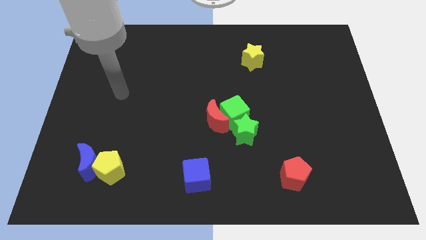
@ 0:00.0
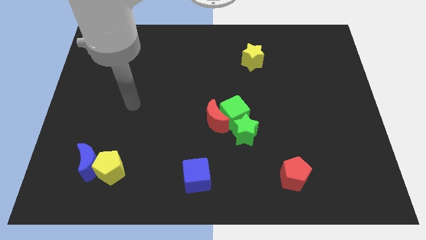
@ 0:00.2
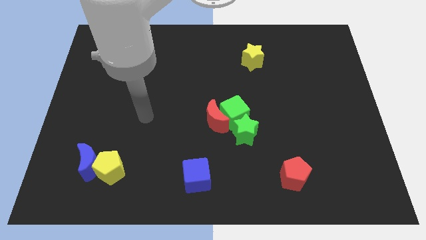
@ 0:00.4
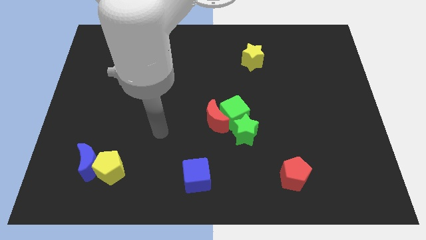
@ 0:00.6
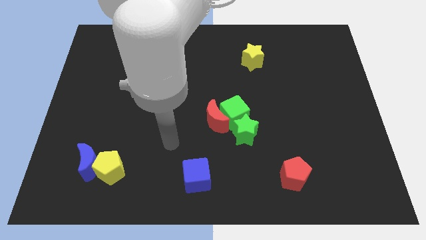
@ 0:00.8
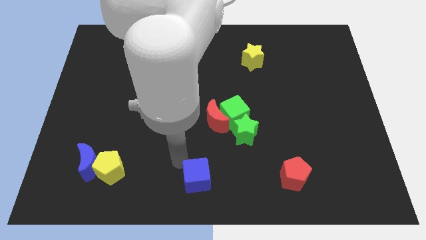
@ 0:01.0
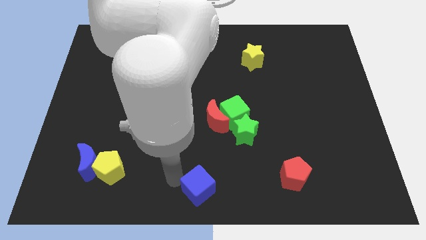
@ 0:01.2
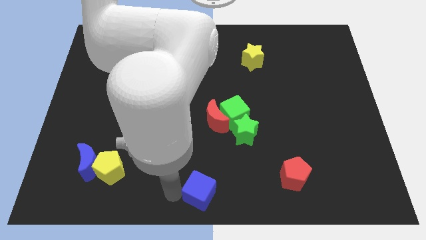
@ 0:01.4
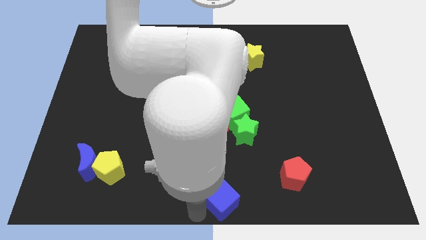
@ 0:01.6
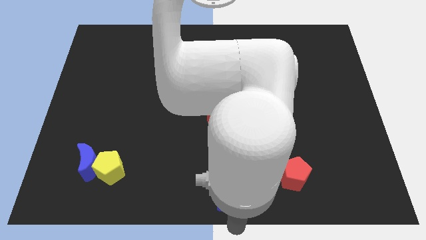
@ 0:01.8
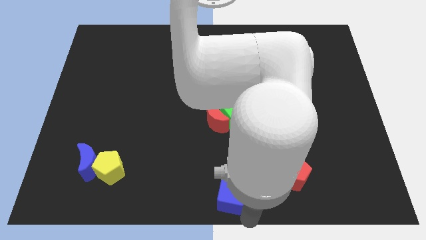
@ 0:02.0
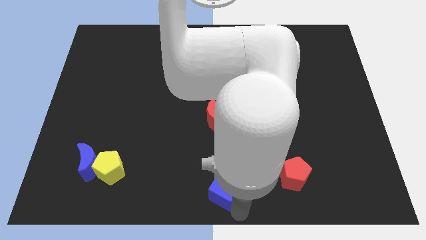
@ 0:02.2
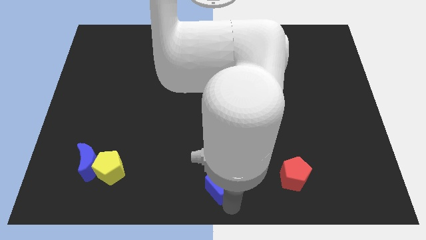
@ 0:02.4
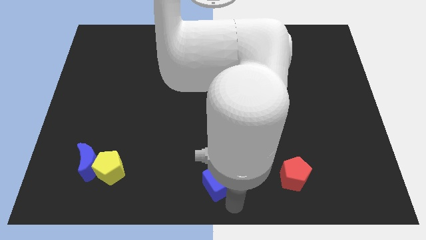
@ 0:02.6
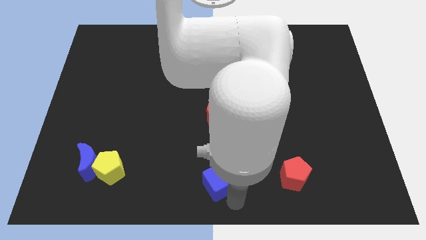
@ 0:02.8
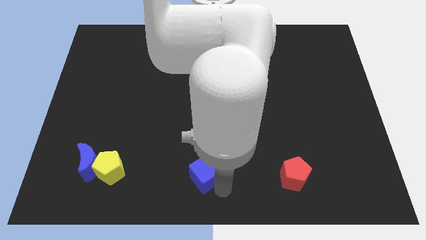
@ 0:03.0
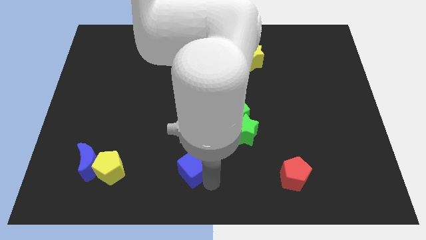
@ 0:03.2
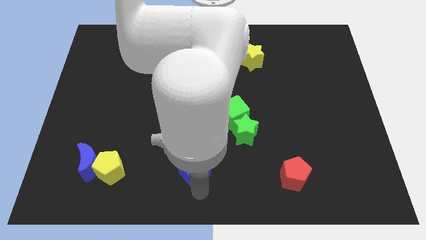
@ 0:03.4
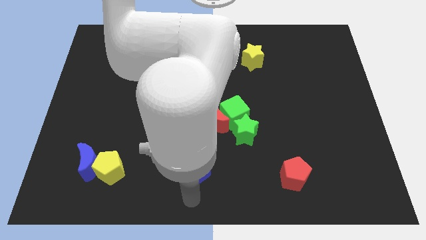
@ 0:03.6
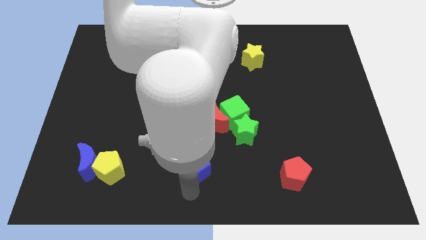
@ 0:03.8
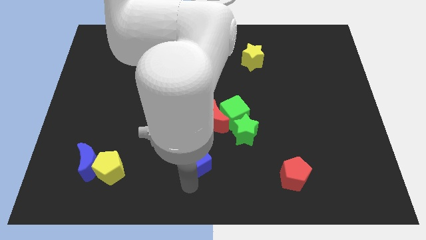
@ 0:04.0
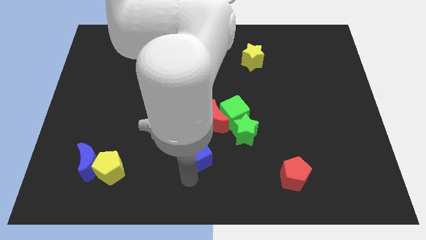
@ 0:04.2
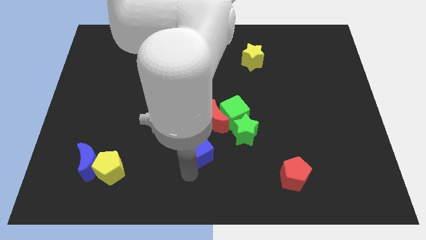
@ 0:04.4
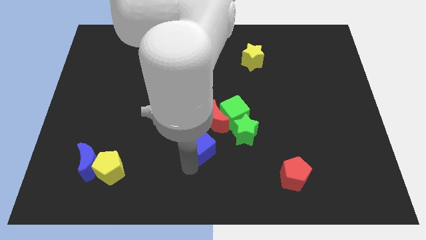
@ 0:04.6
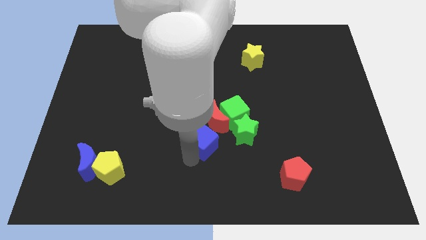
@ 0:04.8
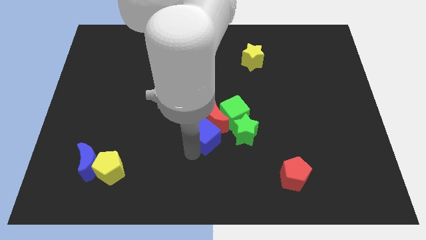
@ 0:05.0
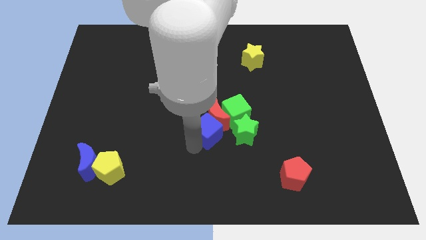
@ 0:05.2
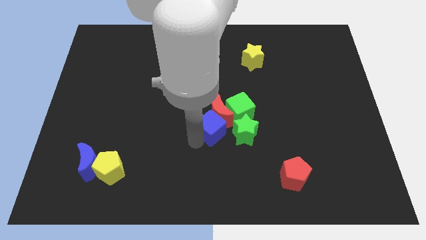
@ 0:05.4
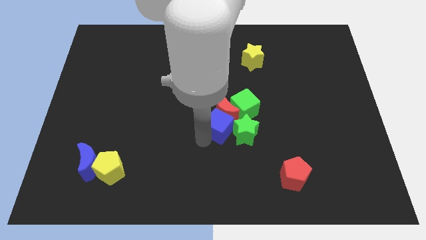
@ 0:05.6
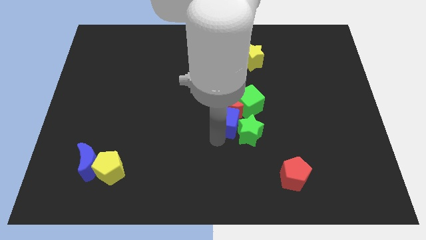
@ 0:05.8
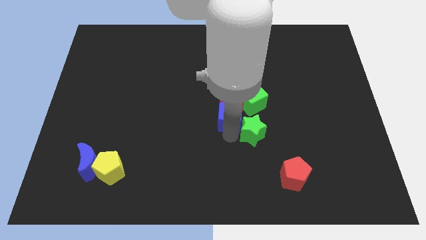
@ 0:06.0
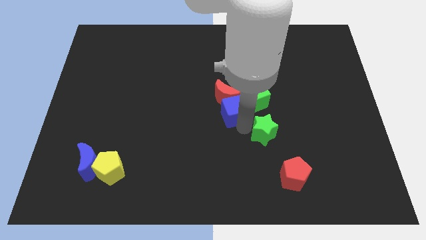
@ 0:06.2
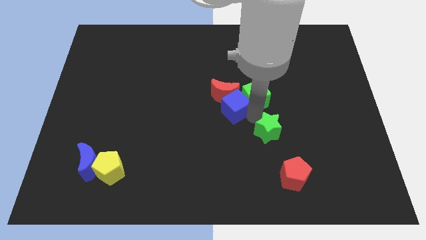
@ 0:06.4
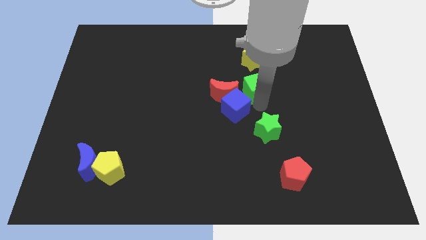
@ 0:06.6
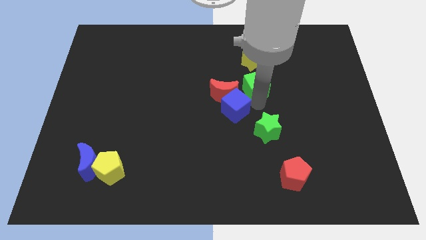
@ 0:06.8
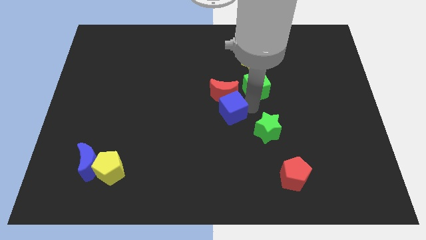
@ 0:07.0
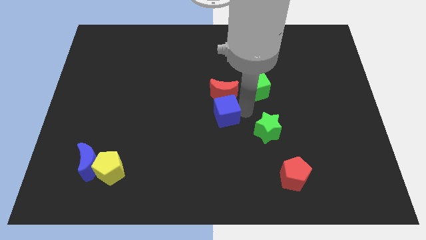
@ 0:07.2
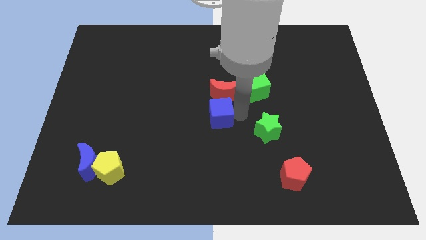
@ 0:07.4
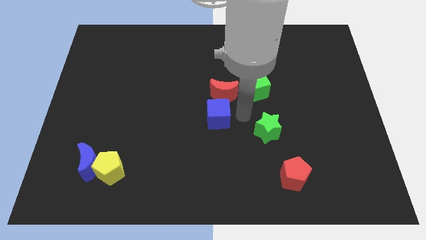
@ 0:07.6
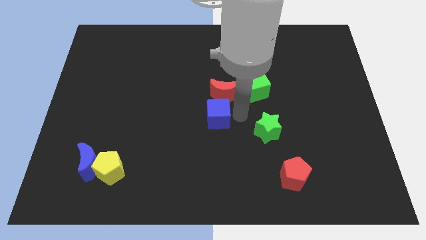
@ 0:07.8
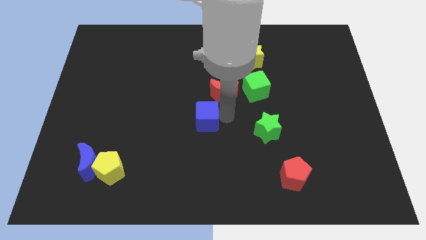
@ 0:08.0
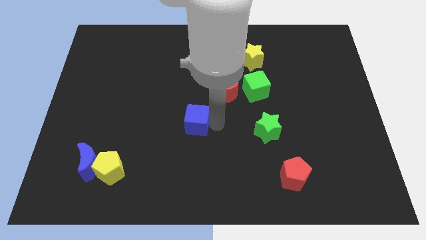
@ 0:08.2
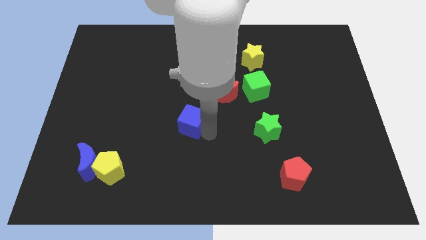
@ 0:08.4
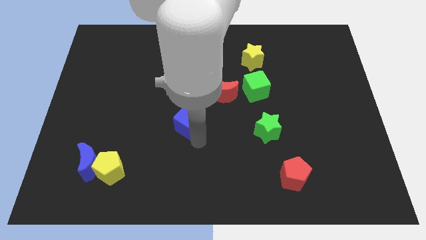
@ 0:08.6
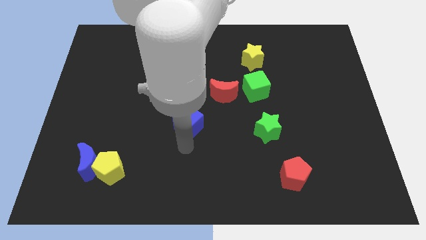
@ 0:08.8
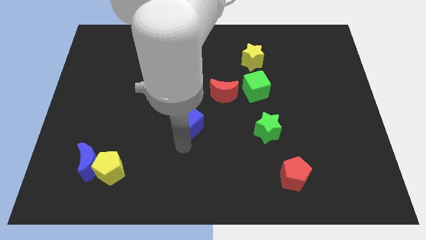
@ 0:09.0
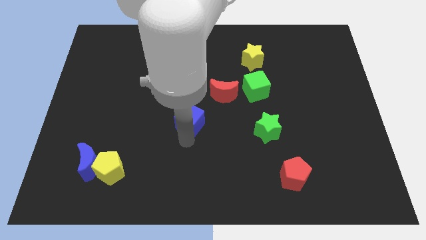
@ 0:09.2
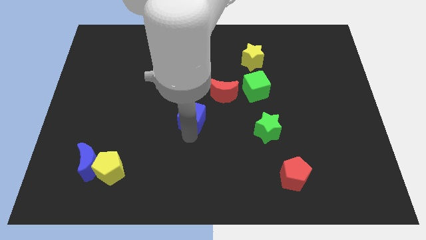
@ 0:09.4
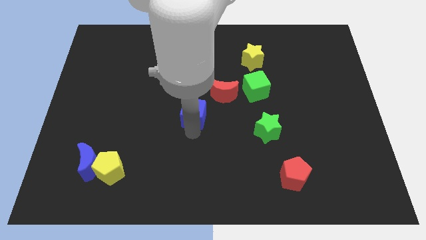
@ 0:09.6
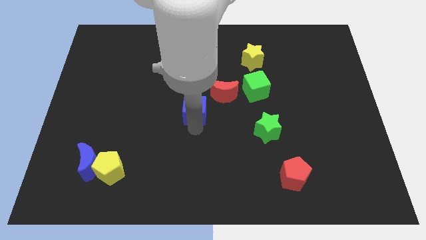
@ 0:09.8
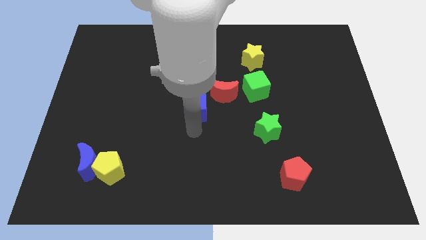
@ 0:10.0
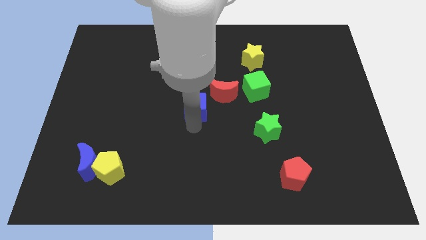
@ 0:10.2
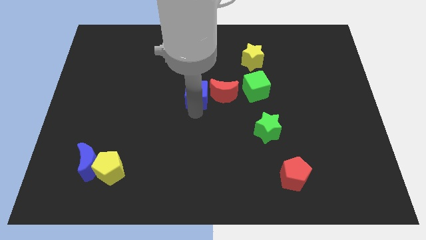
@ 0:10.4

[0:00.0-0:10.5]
move the blue cube up

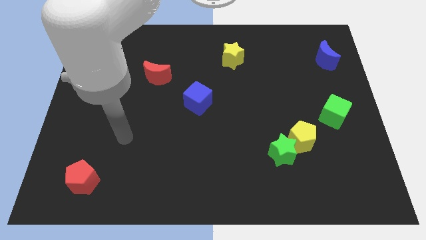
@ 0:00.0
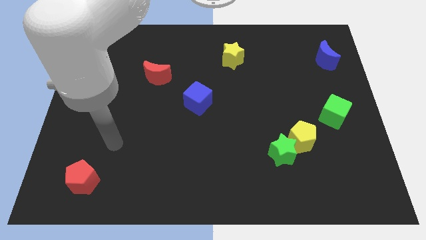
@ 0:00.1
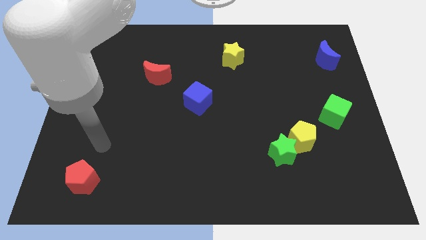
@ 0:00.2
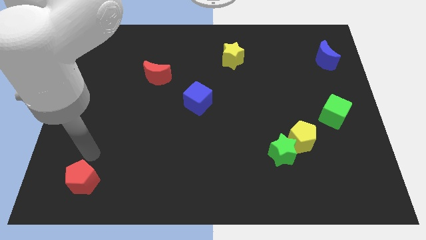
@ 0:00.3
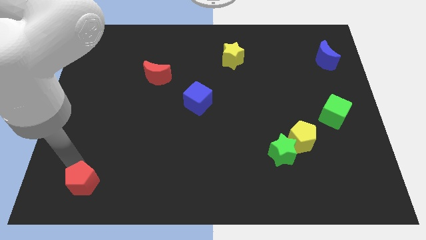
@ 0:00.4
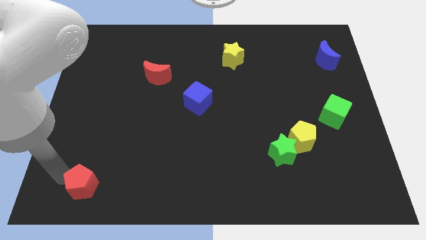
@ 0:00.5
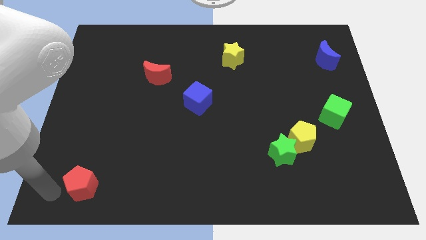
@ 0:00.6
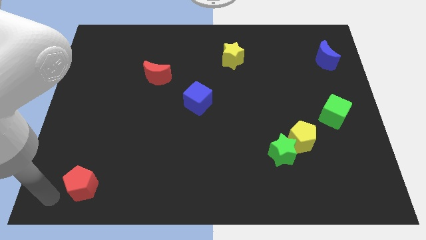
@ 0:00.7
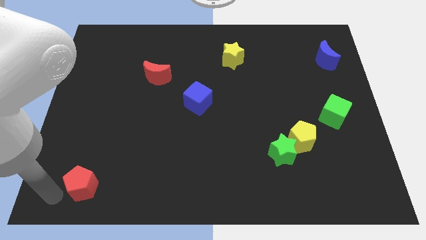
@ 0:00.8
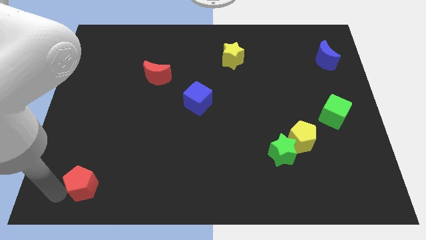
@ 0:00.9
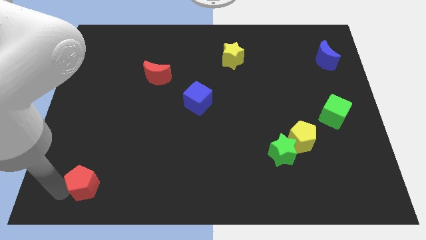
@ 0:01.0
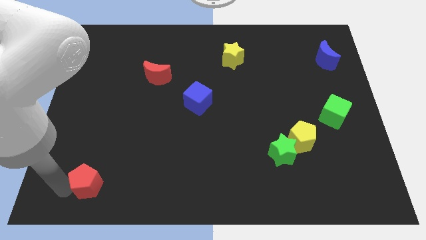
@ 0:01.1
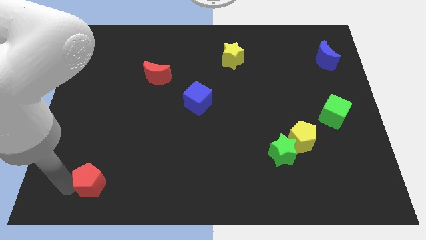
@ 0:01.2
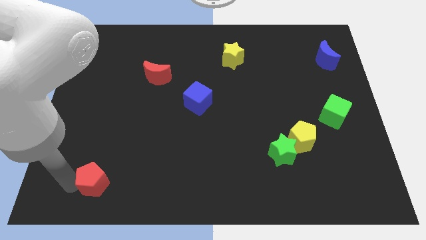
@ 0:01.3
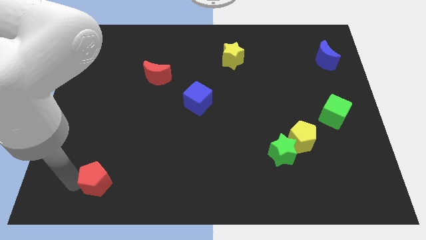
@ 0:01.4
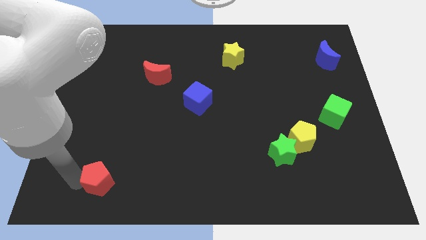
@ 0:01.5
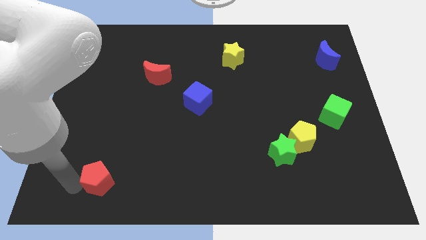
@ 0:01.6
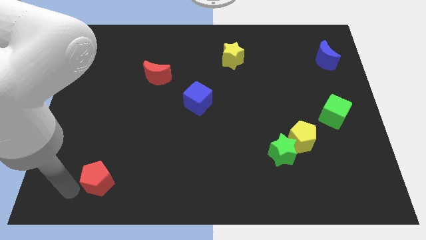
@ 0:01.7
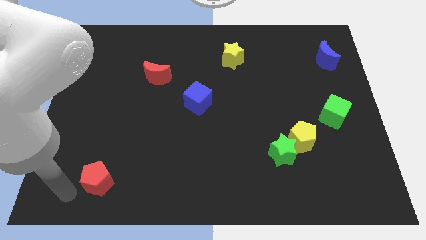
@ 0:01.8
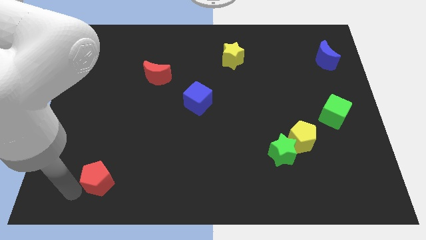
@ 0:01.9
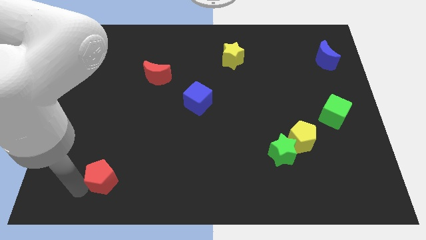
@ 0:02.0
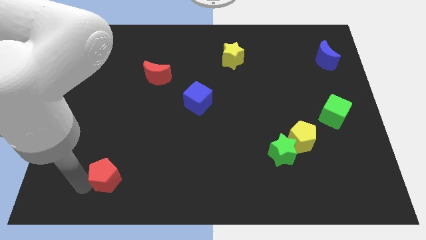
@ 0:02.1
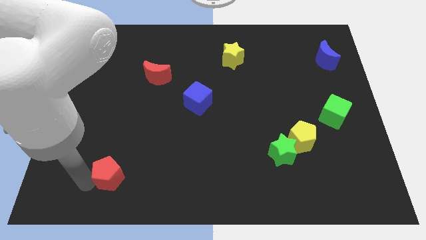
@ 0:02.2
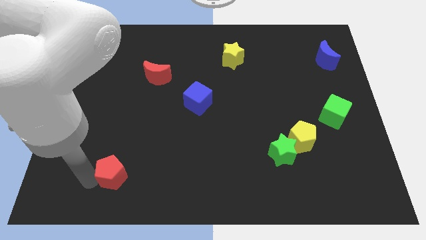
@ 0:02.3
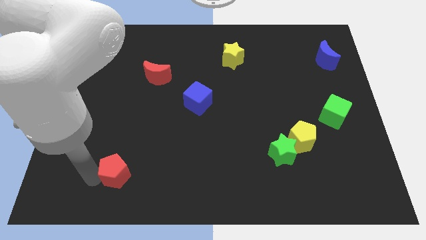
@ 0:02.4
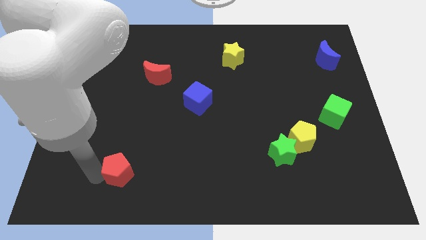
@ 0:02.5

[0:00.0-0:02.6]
move the red pentagon a little to the right

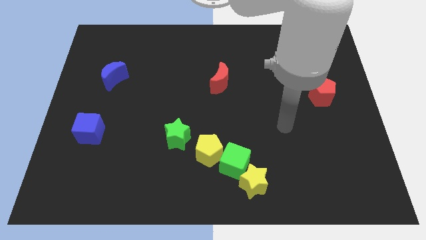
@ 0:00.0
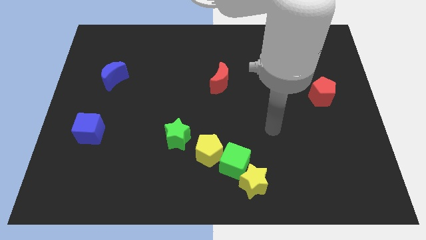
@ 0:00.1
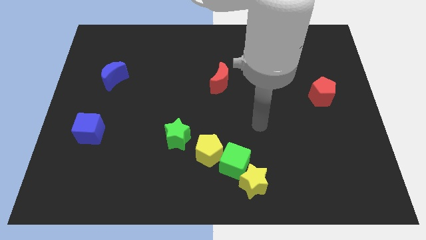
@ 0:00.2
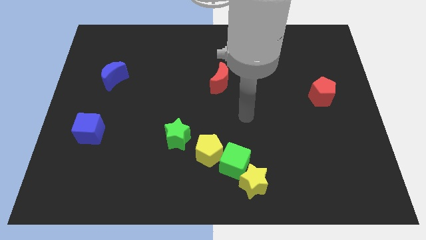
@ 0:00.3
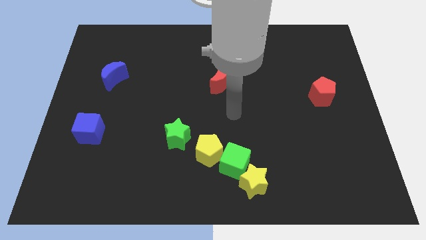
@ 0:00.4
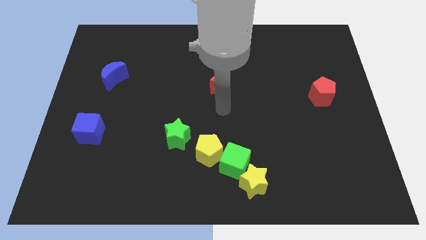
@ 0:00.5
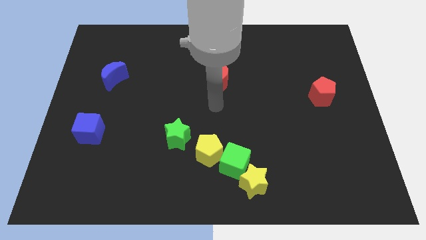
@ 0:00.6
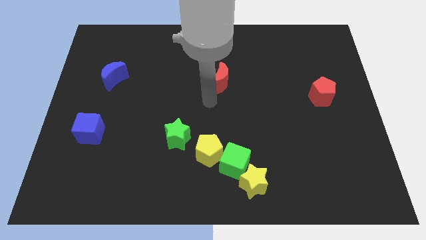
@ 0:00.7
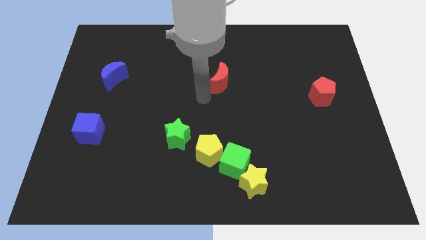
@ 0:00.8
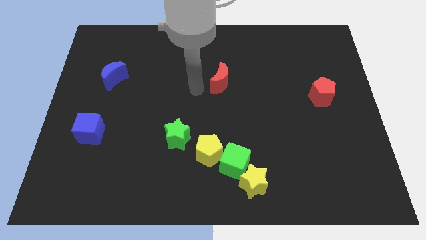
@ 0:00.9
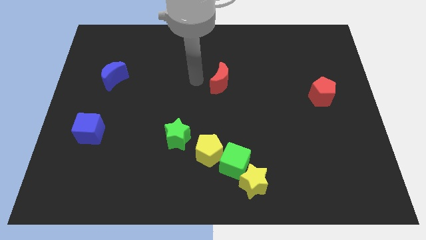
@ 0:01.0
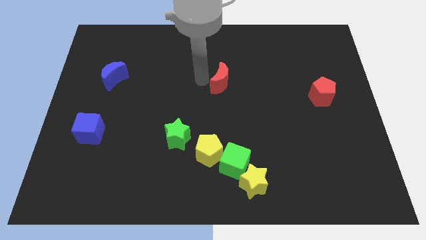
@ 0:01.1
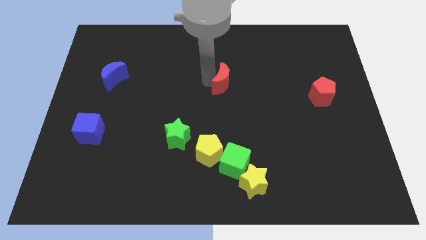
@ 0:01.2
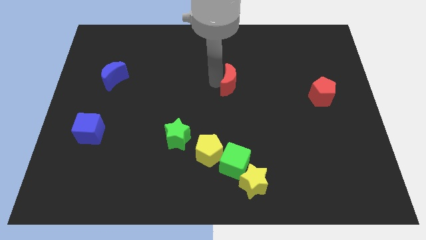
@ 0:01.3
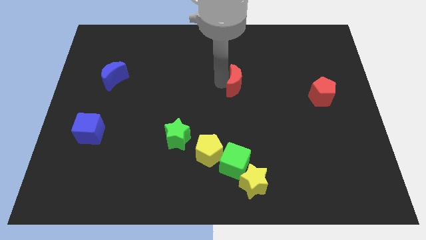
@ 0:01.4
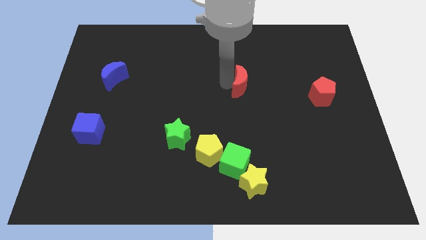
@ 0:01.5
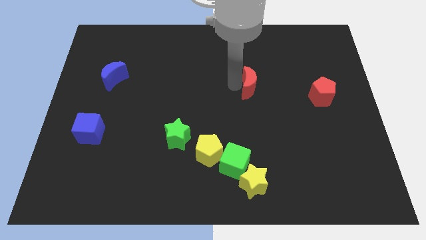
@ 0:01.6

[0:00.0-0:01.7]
slightly slide the red moon to the right
